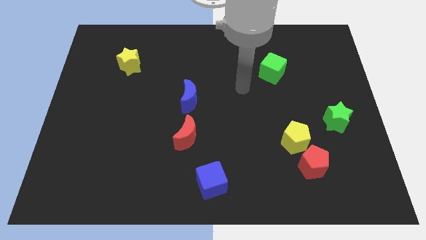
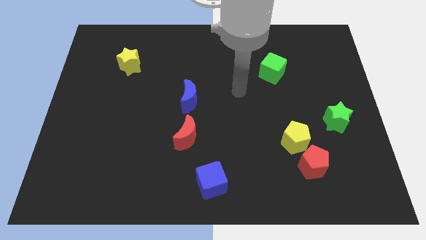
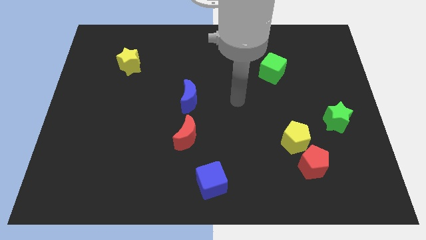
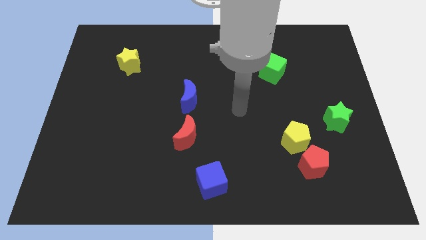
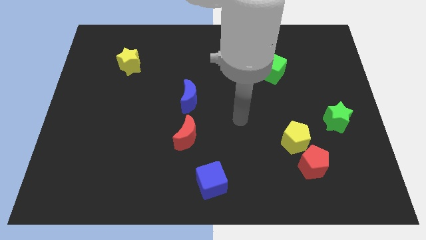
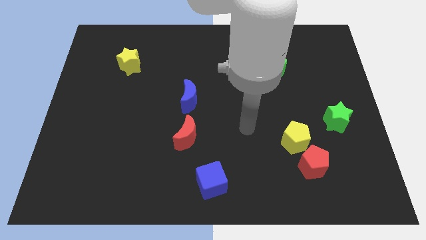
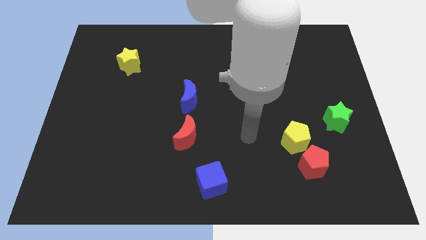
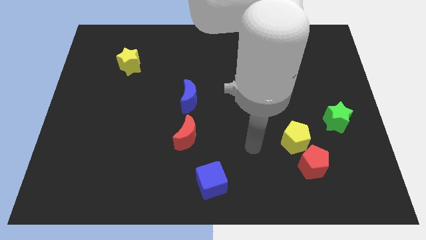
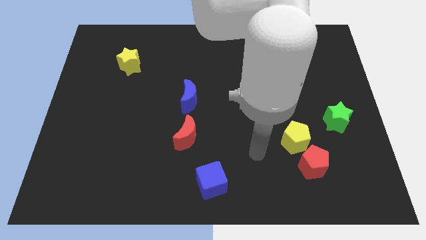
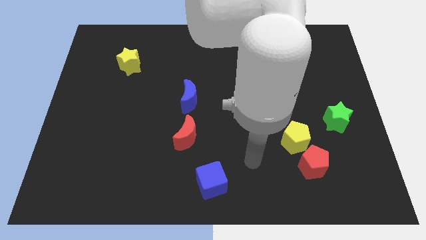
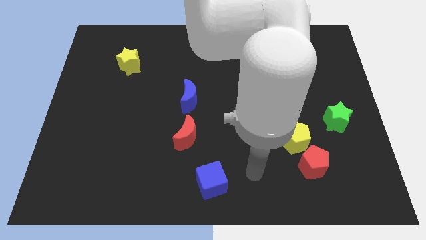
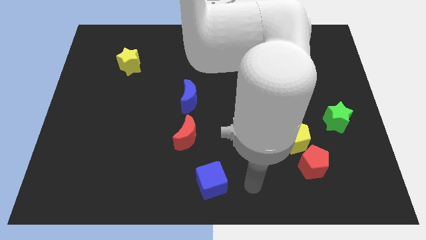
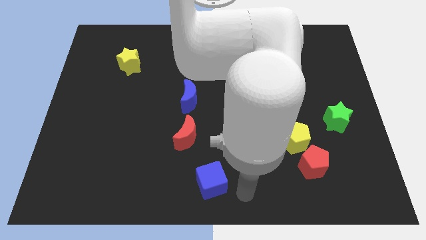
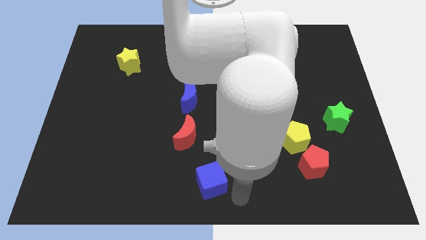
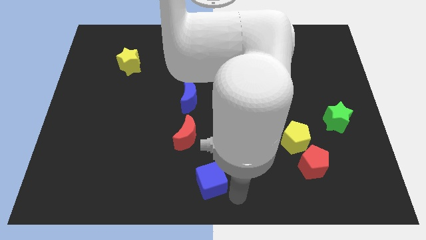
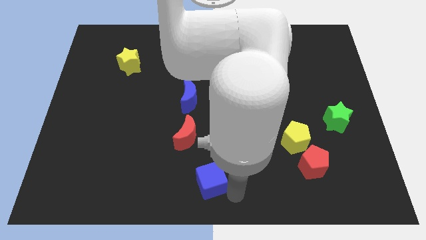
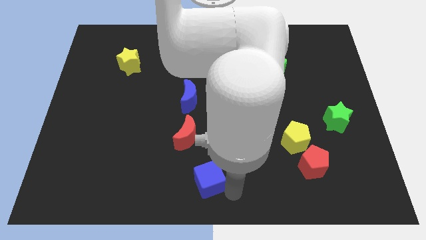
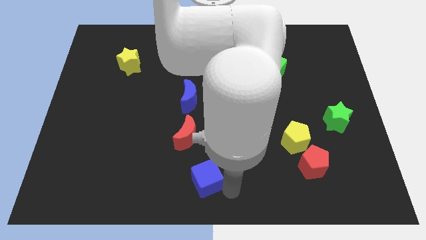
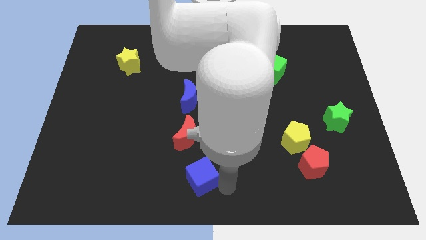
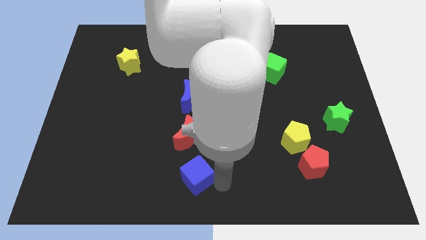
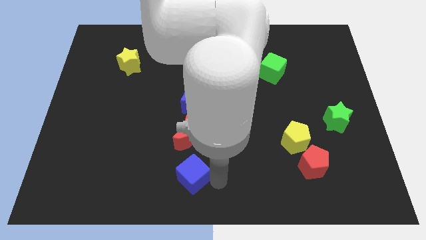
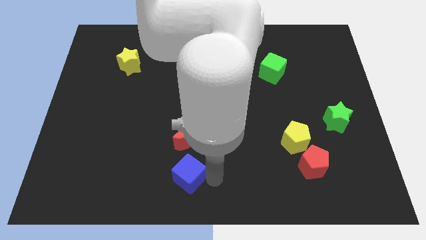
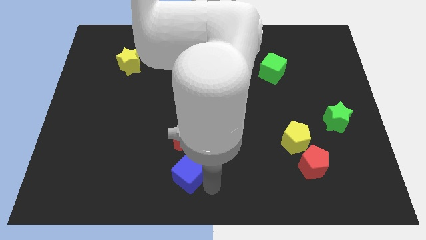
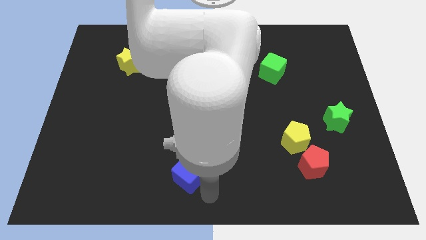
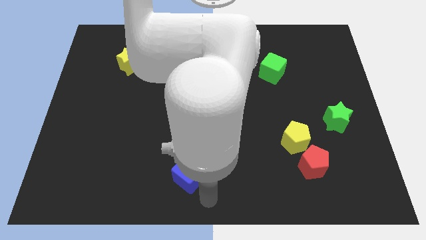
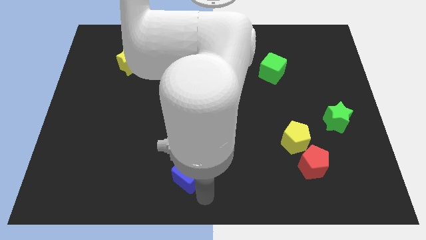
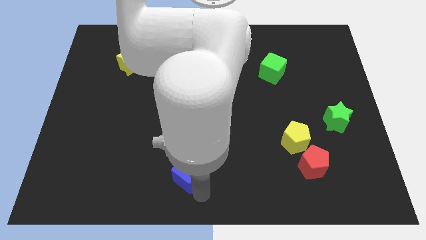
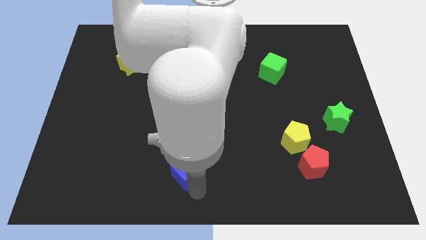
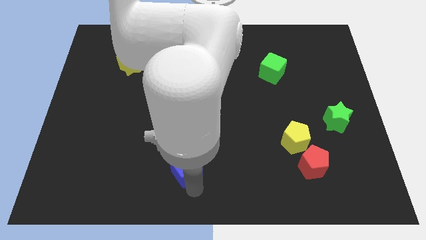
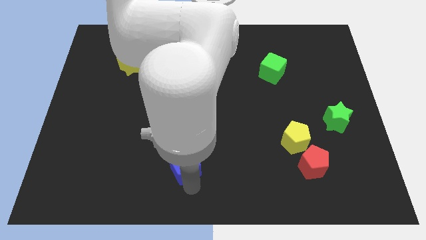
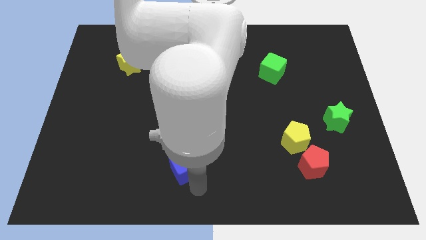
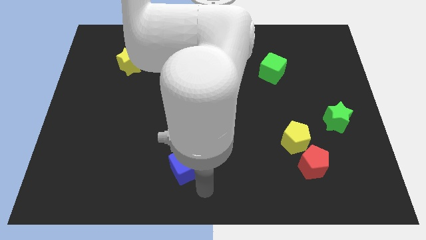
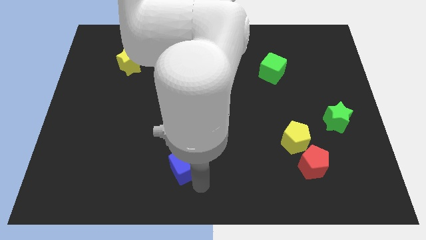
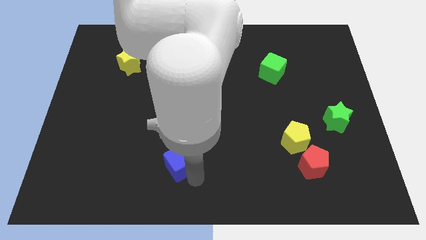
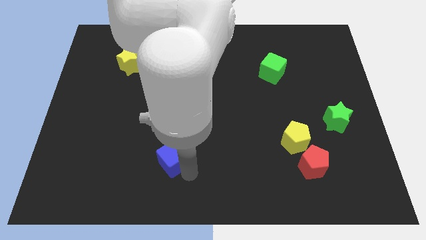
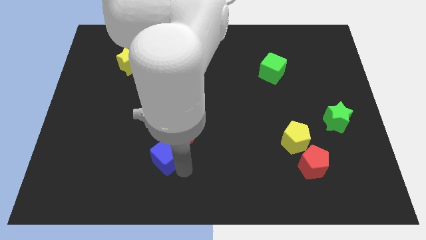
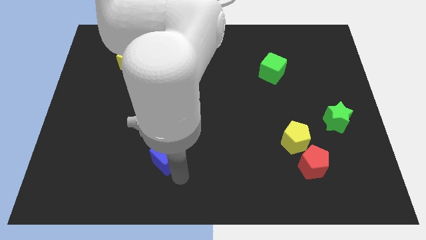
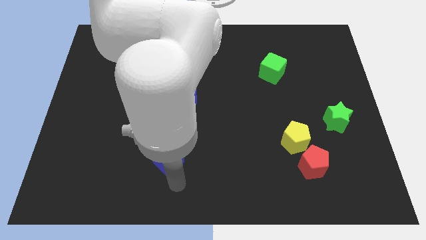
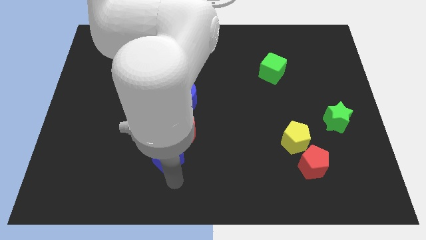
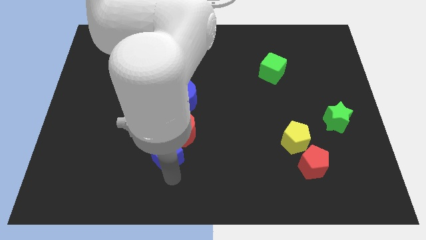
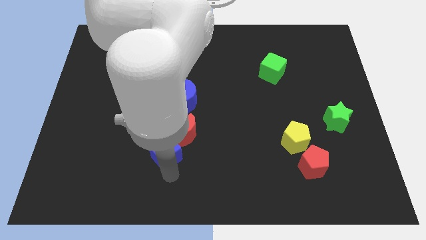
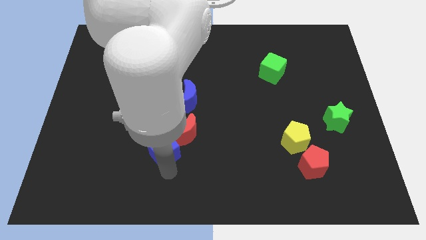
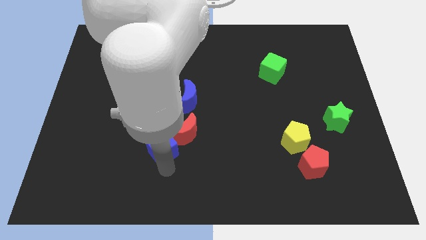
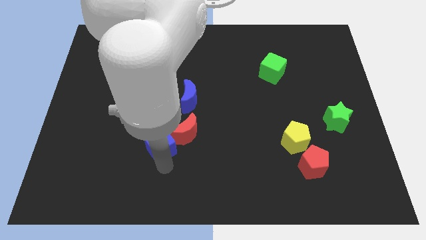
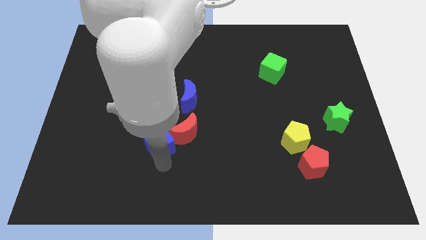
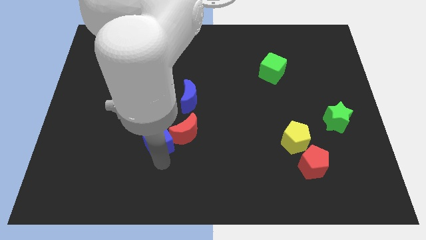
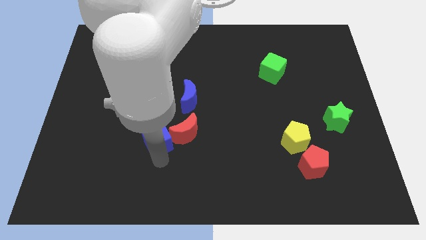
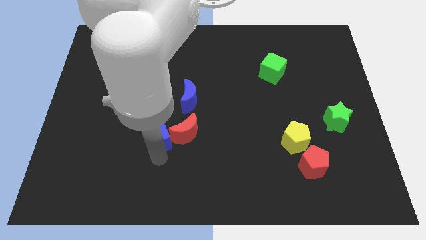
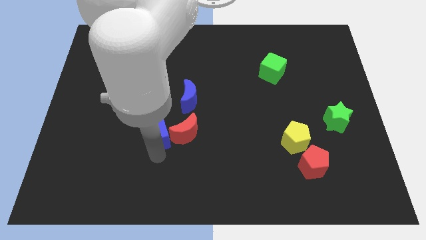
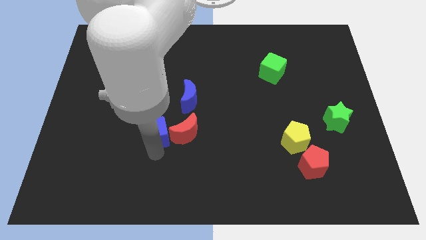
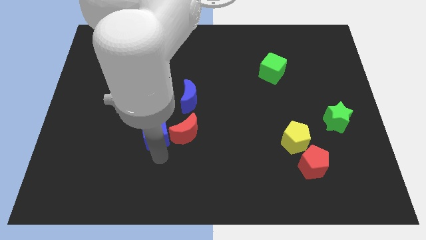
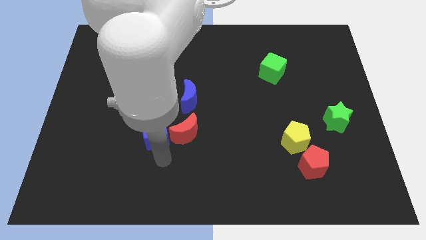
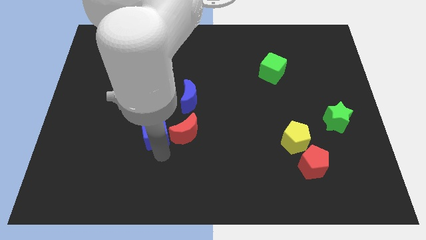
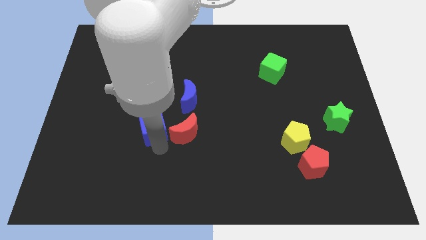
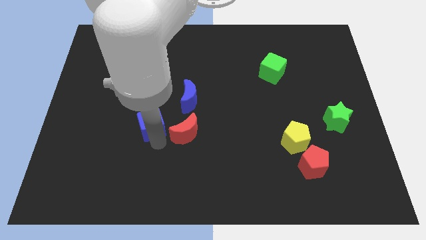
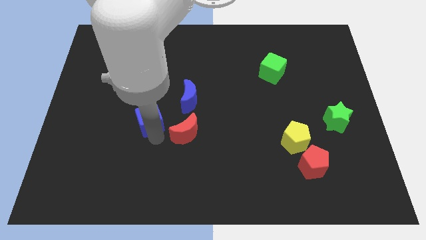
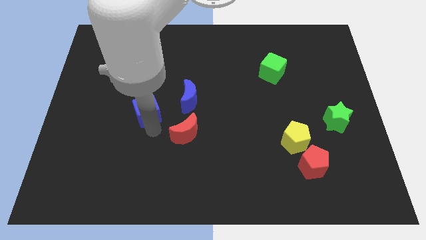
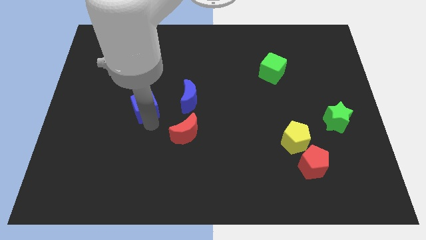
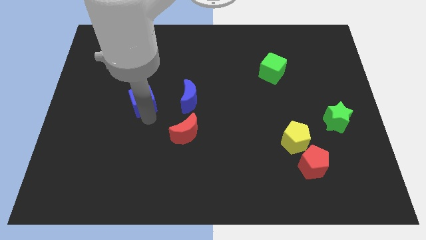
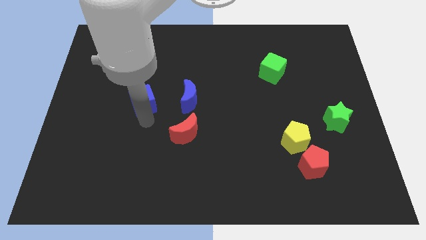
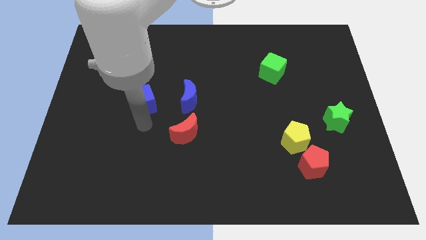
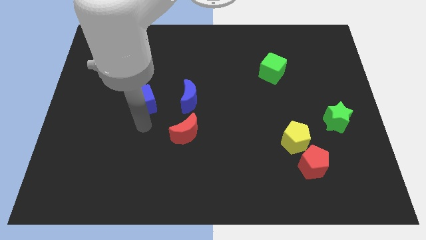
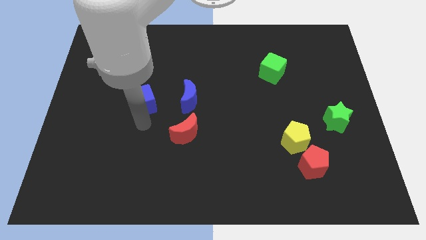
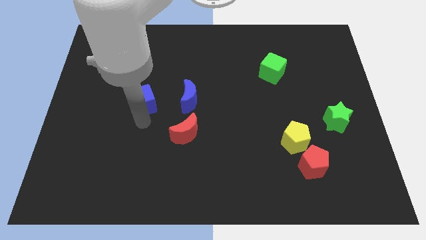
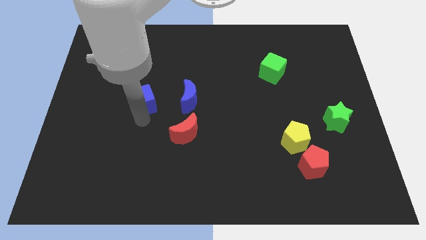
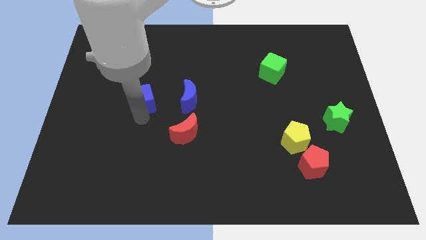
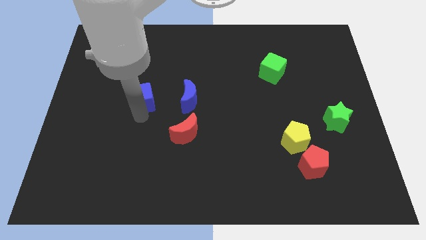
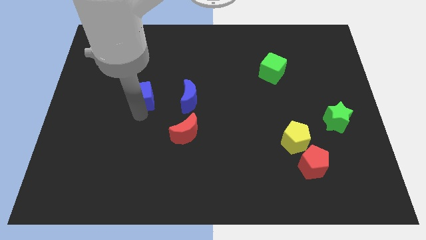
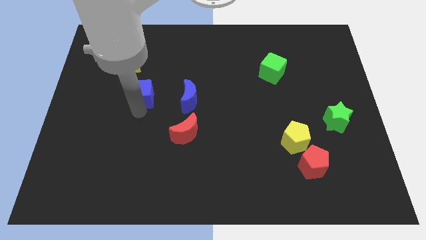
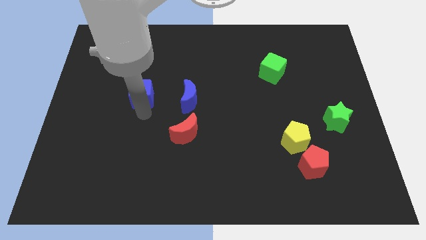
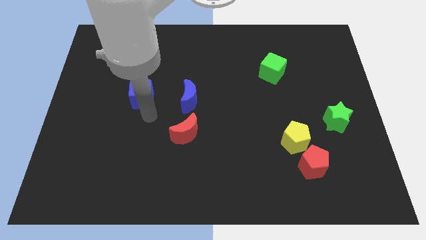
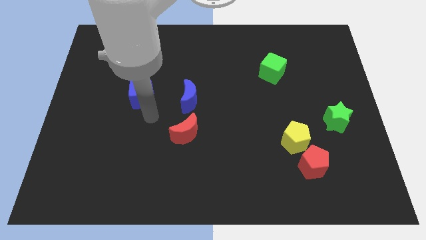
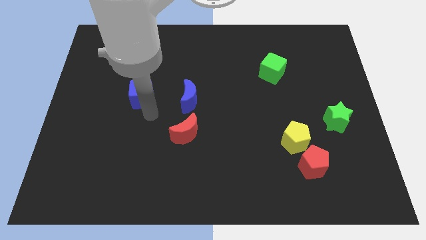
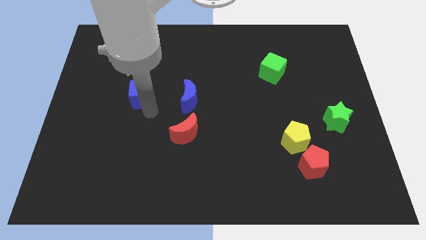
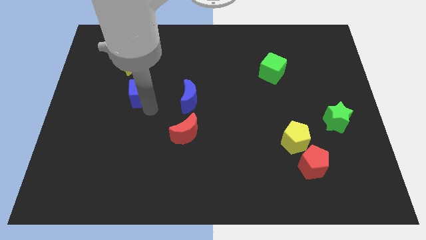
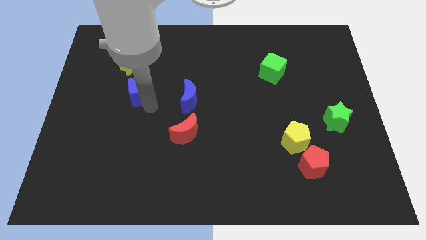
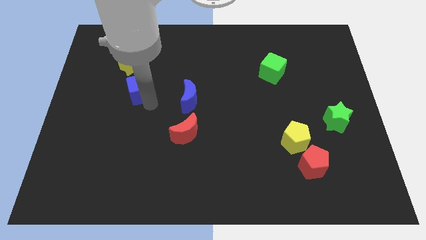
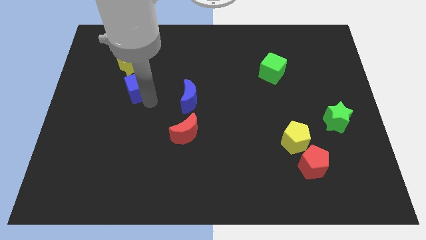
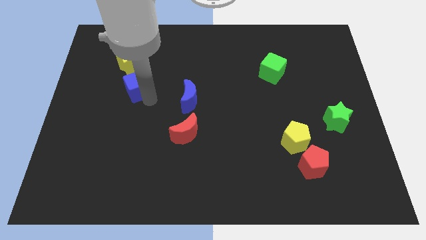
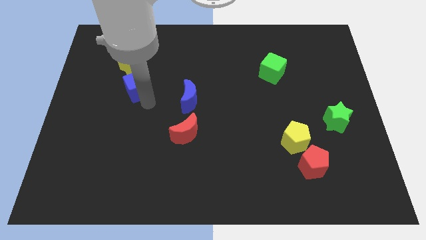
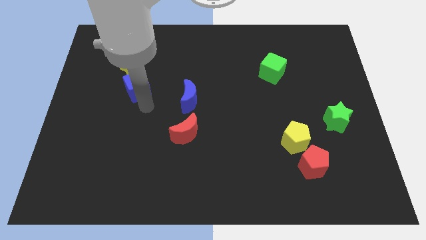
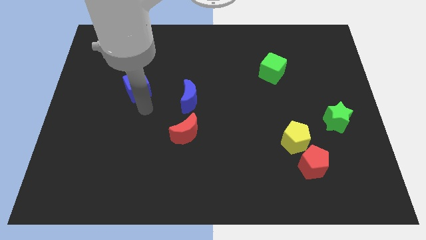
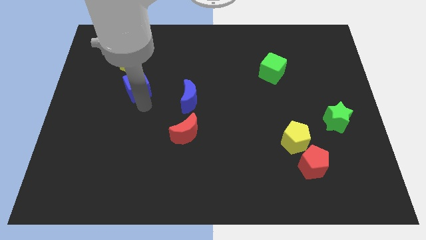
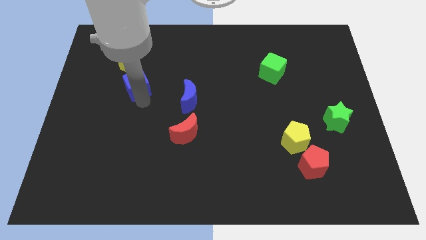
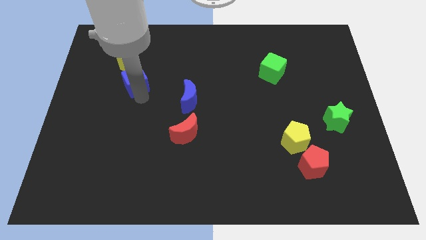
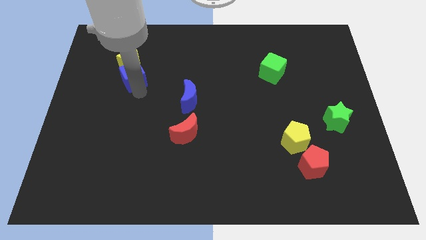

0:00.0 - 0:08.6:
move the blue cube next to the yellow star
